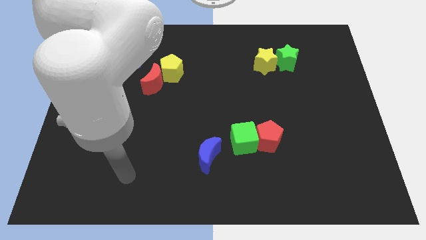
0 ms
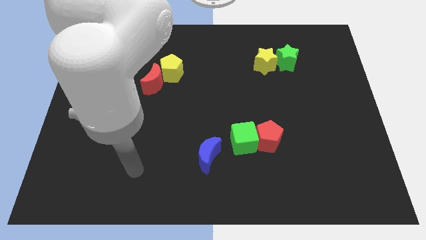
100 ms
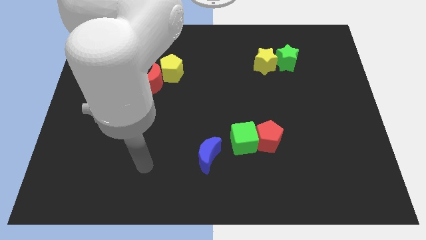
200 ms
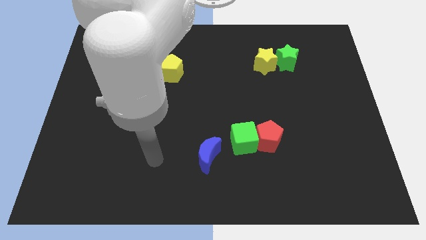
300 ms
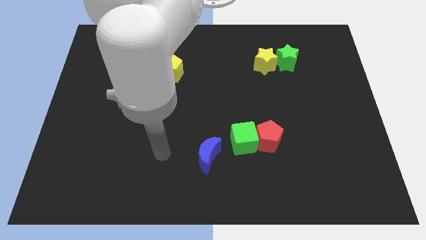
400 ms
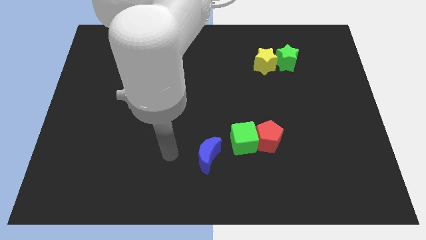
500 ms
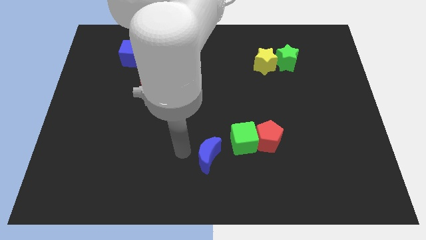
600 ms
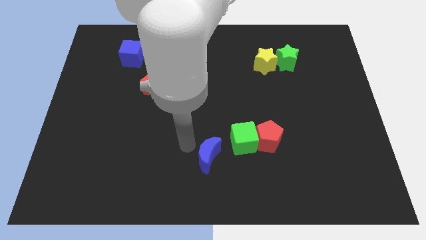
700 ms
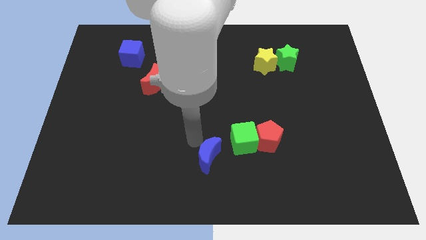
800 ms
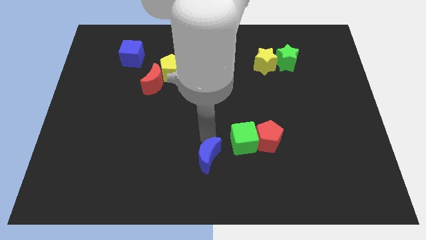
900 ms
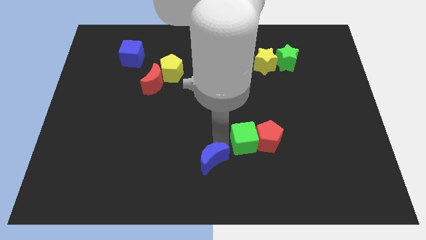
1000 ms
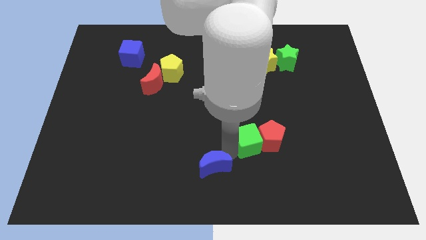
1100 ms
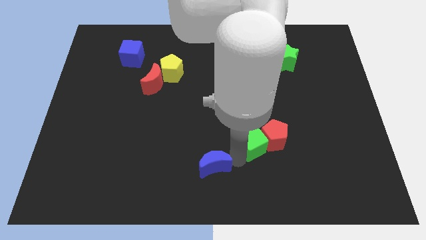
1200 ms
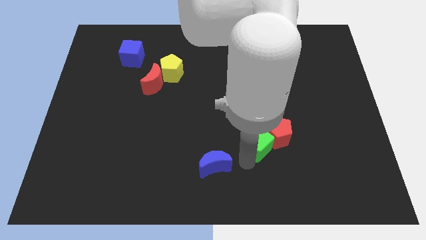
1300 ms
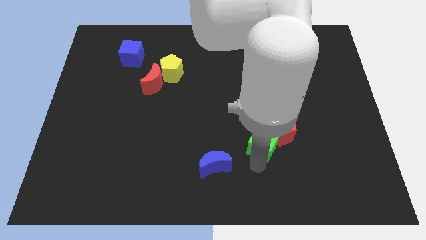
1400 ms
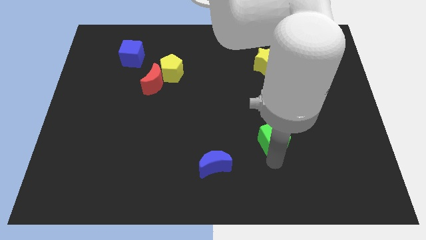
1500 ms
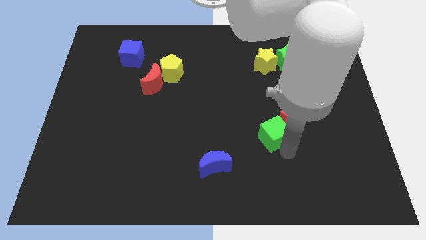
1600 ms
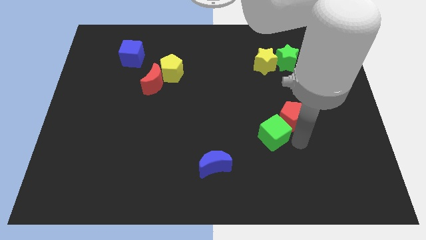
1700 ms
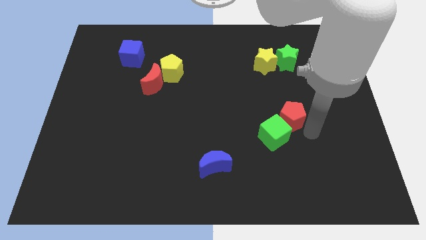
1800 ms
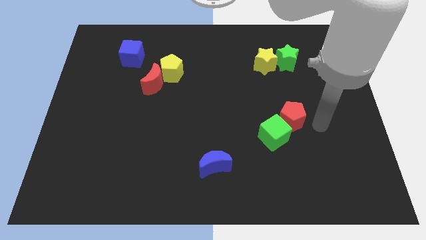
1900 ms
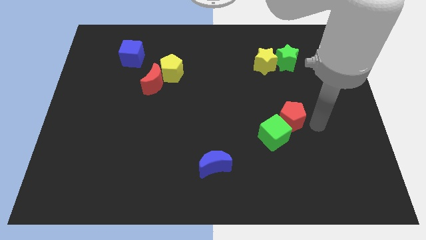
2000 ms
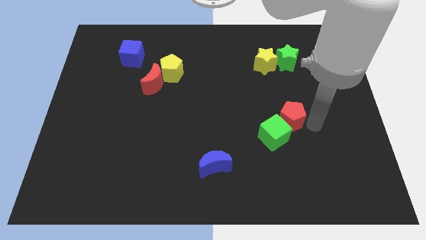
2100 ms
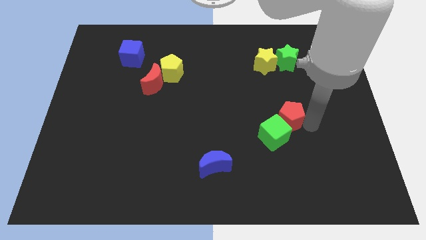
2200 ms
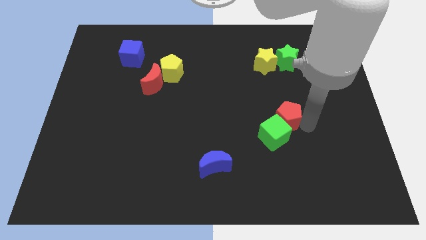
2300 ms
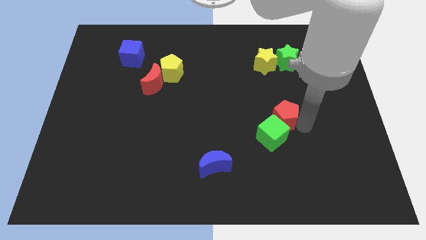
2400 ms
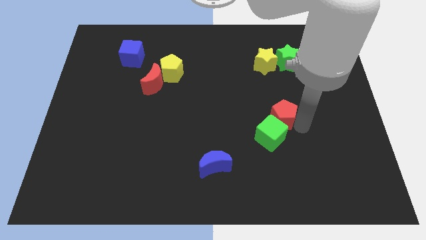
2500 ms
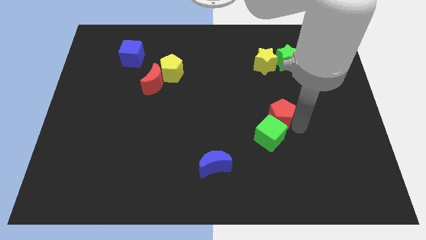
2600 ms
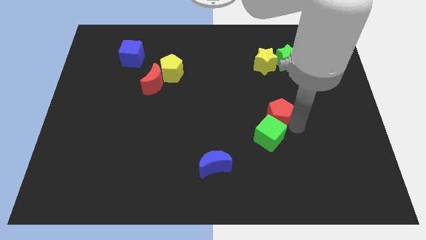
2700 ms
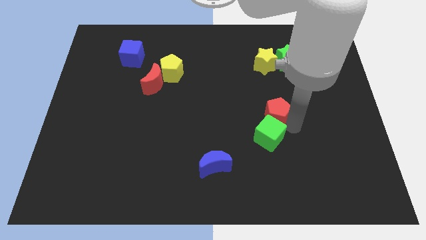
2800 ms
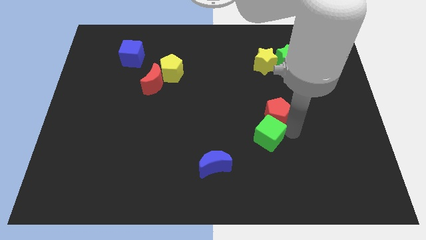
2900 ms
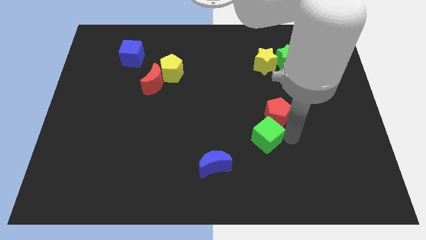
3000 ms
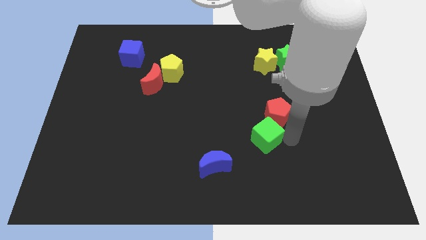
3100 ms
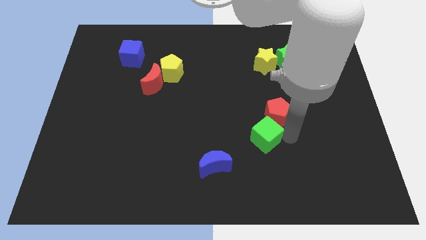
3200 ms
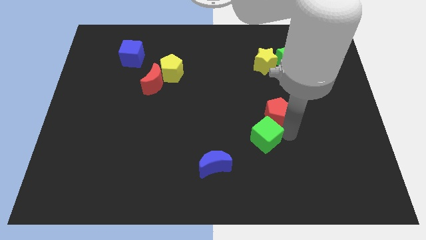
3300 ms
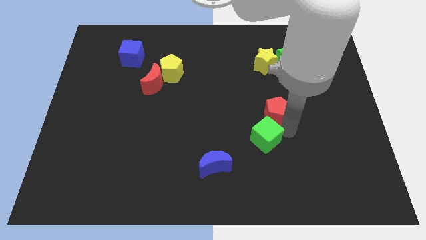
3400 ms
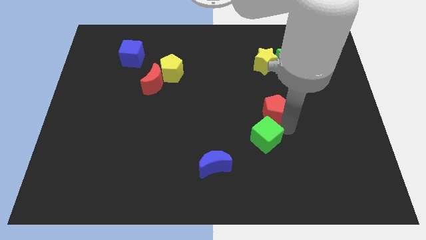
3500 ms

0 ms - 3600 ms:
move the red pentagon somewhat upwards

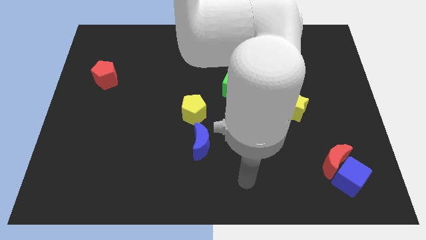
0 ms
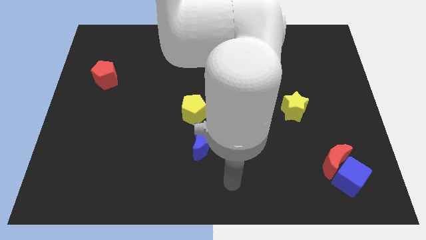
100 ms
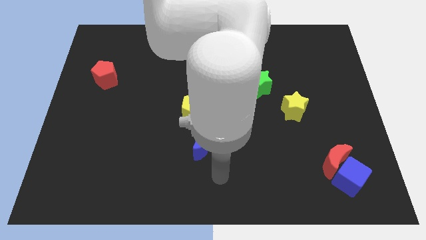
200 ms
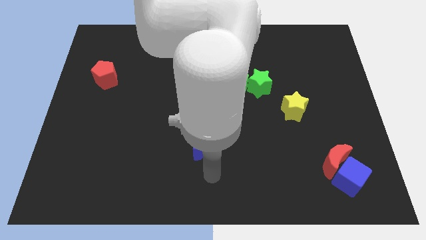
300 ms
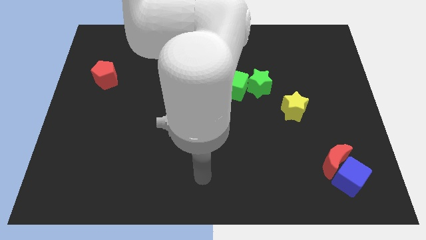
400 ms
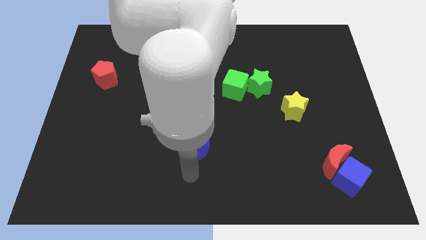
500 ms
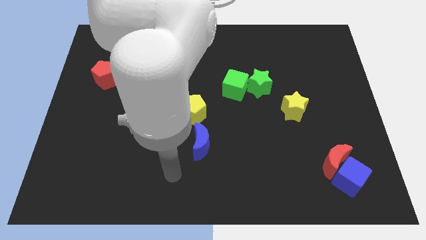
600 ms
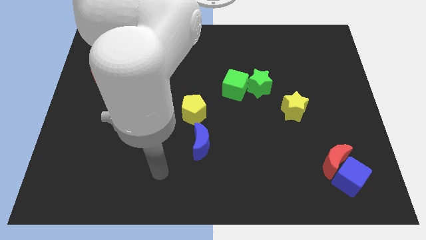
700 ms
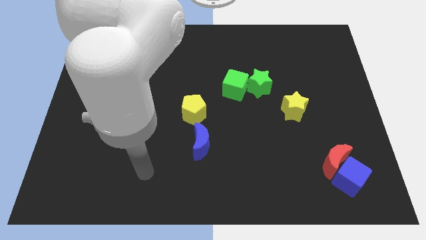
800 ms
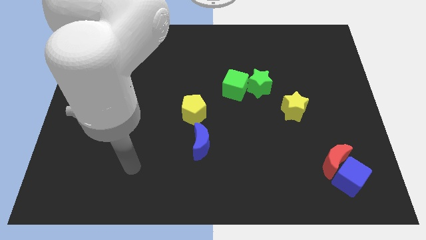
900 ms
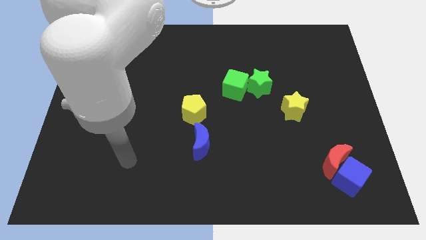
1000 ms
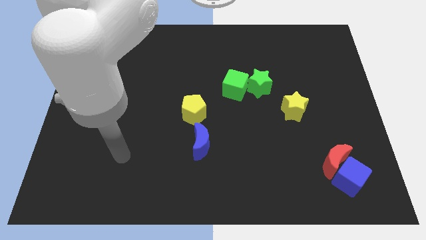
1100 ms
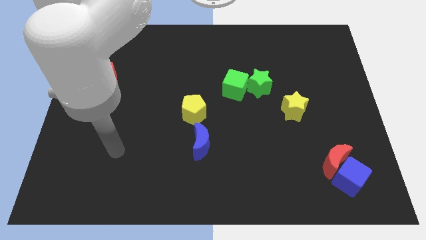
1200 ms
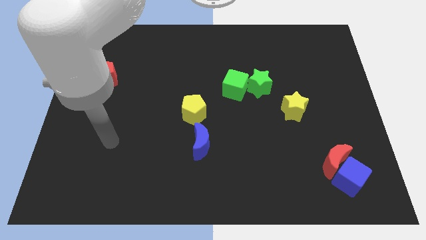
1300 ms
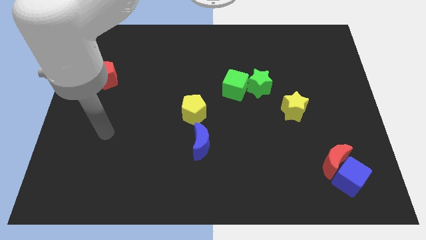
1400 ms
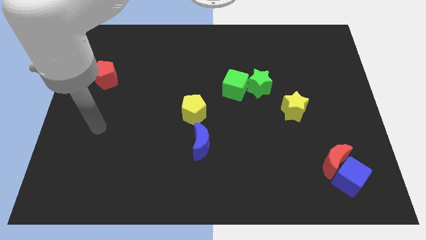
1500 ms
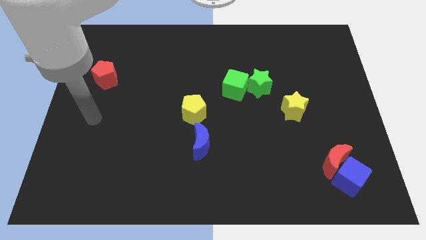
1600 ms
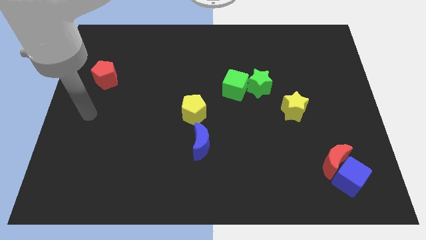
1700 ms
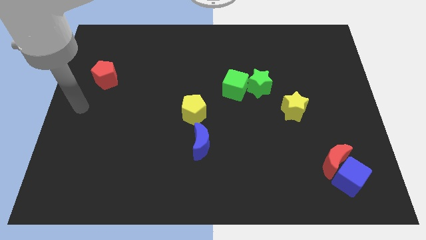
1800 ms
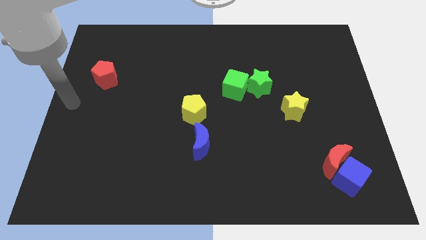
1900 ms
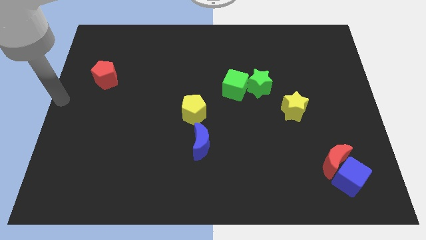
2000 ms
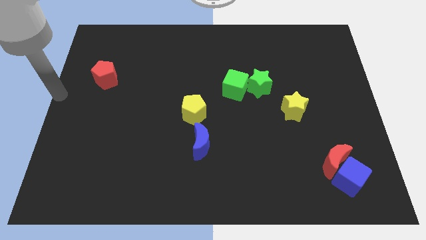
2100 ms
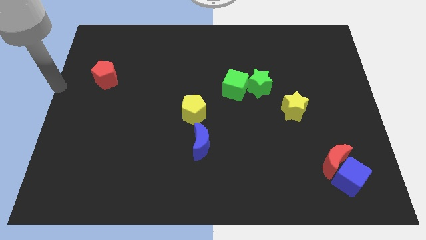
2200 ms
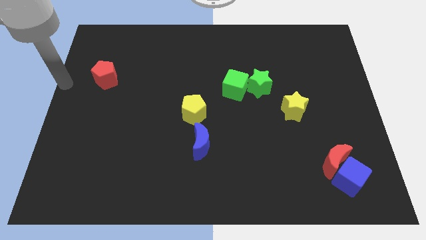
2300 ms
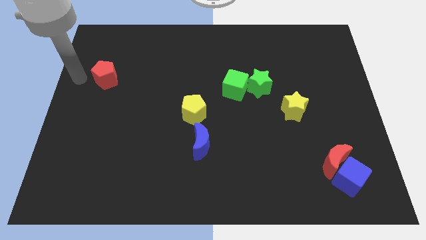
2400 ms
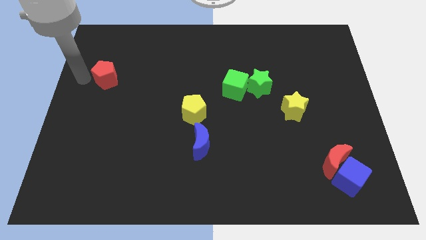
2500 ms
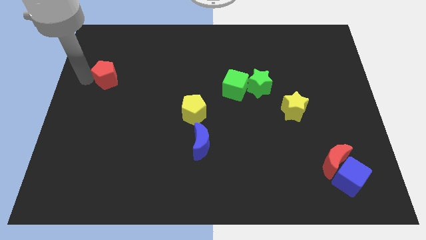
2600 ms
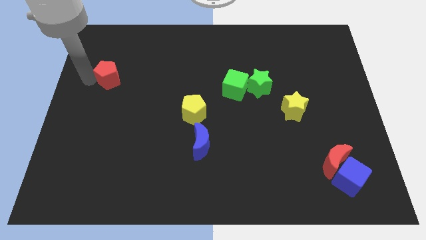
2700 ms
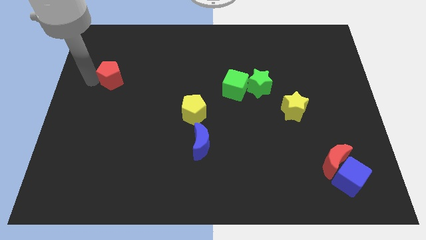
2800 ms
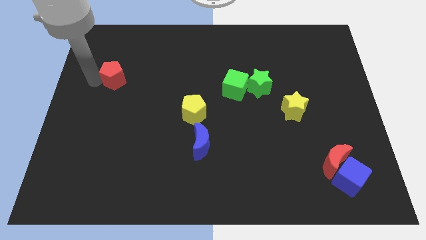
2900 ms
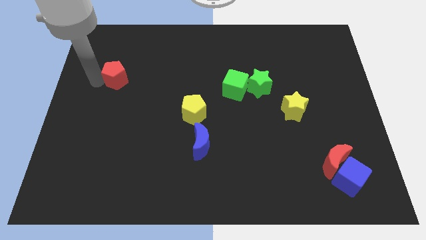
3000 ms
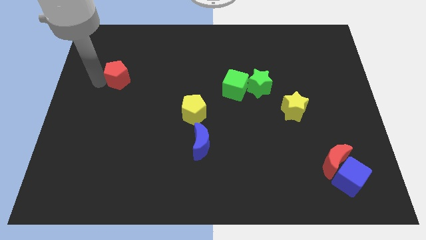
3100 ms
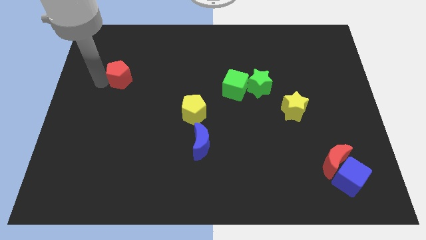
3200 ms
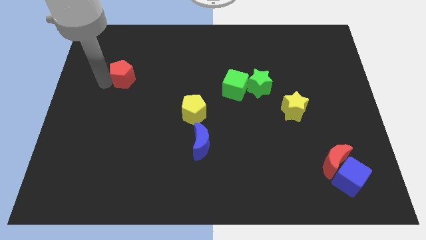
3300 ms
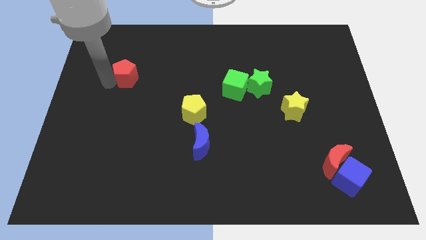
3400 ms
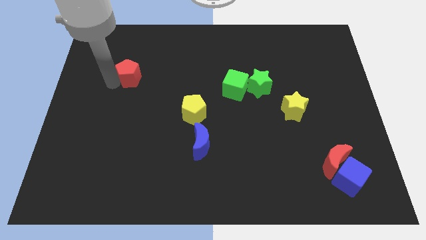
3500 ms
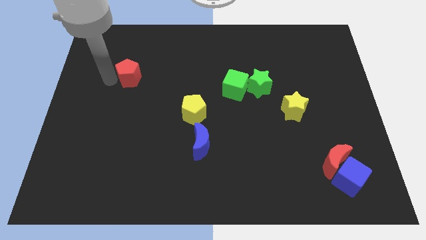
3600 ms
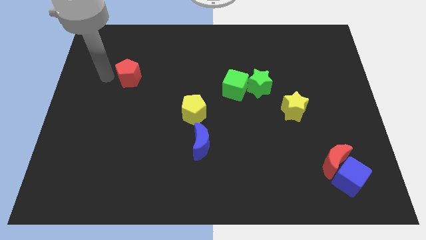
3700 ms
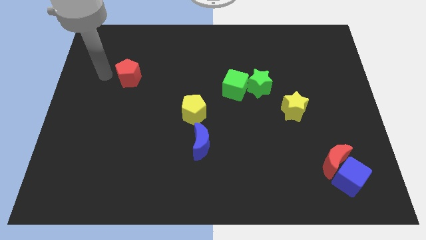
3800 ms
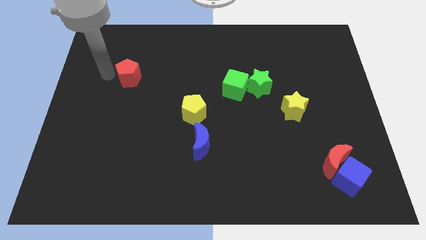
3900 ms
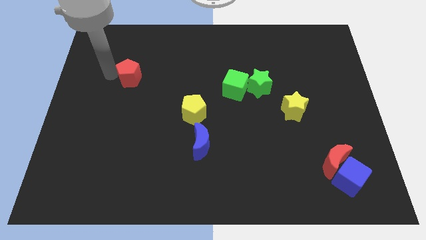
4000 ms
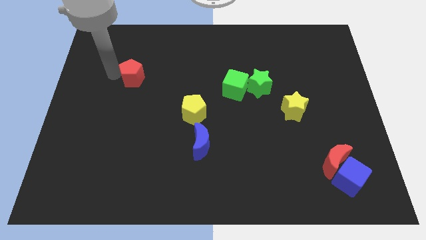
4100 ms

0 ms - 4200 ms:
slightly push the red pentagon to the right

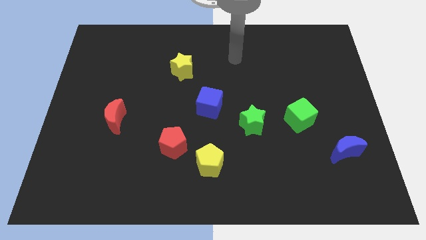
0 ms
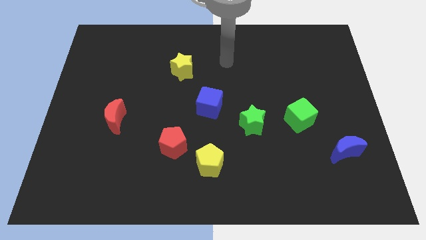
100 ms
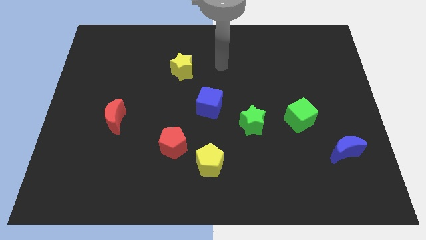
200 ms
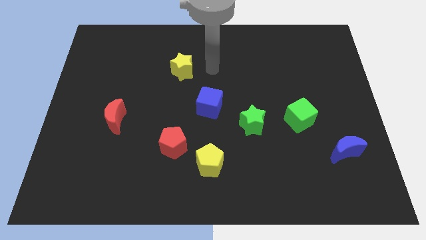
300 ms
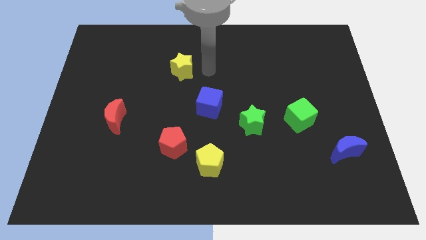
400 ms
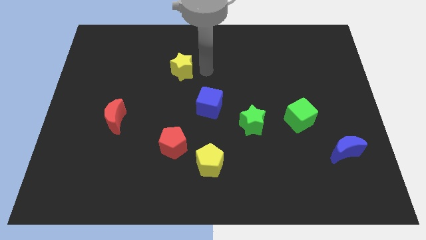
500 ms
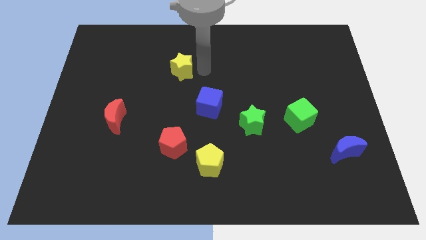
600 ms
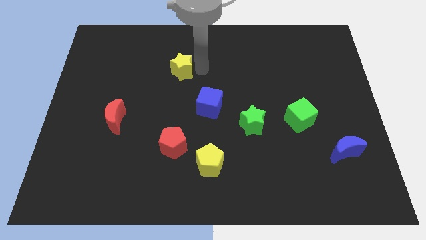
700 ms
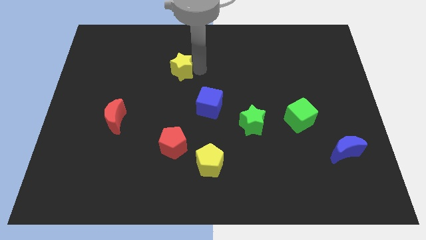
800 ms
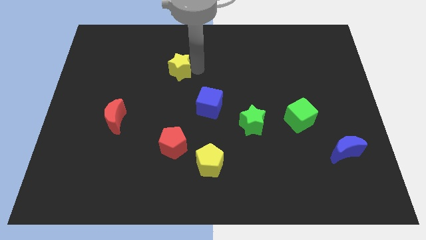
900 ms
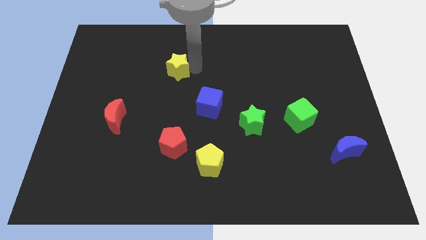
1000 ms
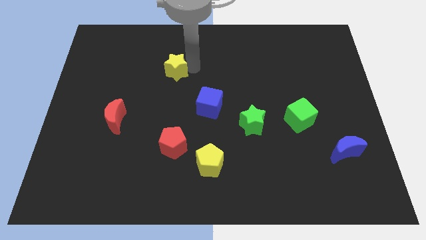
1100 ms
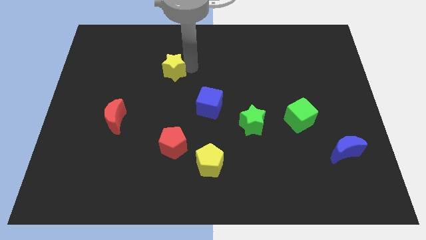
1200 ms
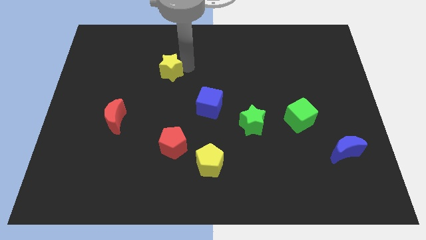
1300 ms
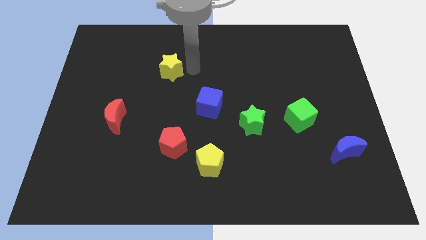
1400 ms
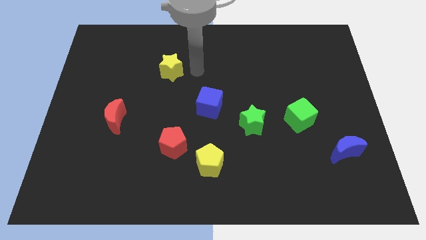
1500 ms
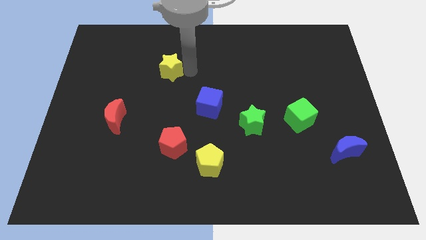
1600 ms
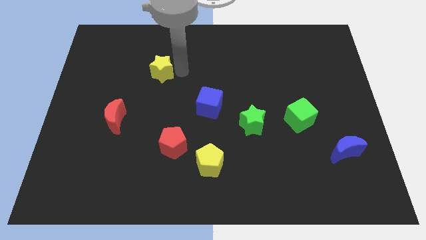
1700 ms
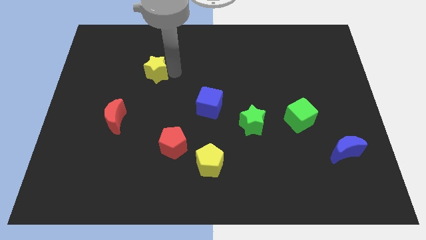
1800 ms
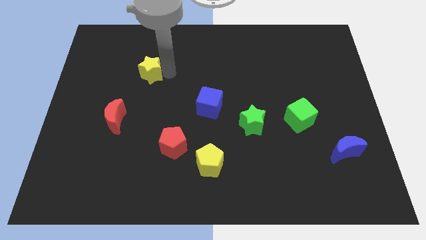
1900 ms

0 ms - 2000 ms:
slightly push the yellow star left
